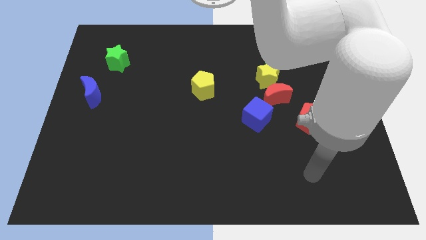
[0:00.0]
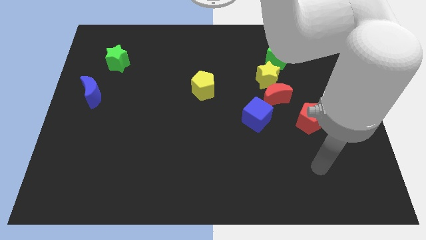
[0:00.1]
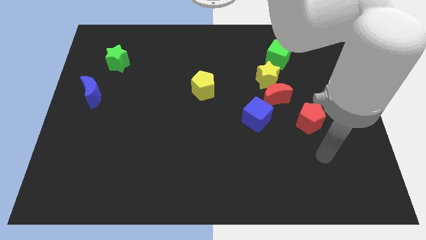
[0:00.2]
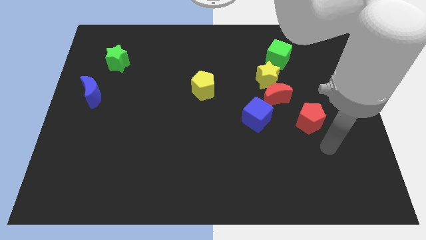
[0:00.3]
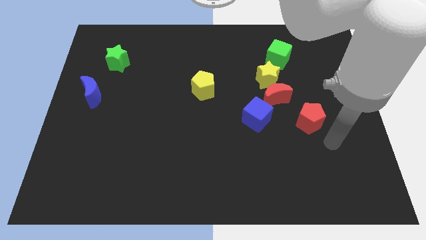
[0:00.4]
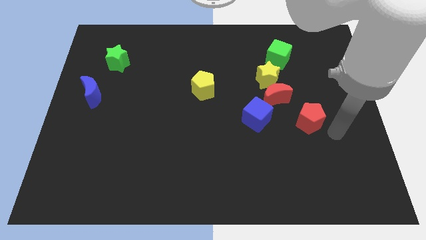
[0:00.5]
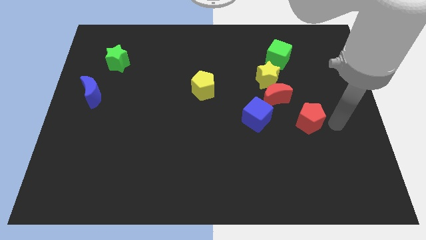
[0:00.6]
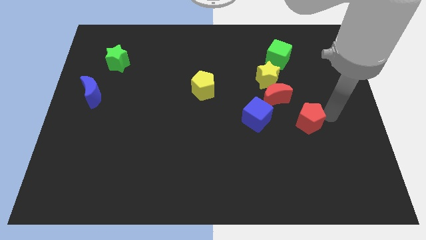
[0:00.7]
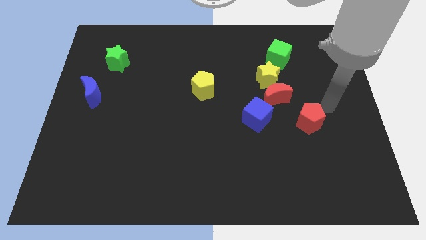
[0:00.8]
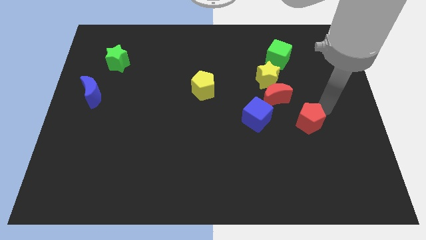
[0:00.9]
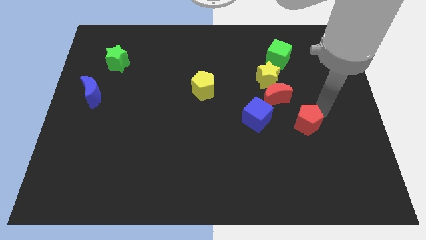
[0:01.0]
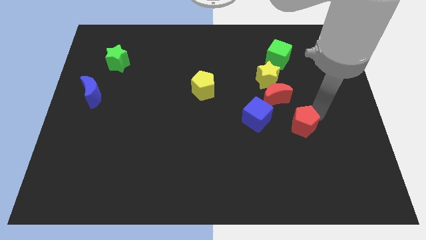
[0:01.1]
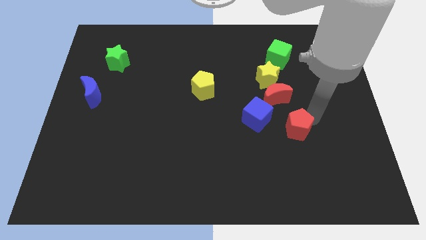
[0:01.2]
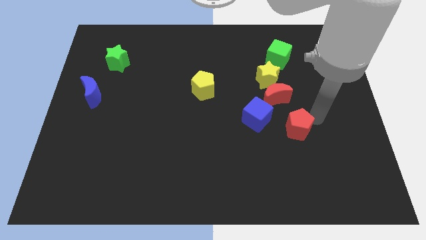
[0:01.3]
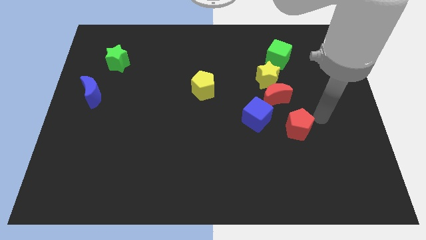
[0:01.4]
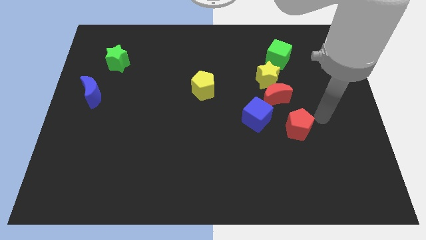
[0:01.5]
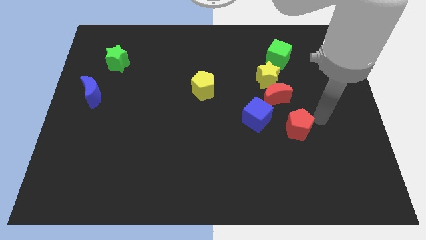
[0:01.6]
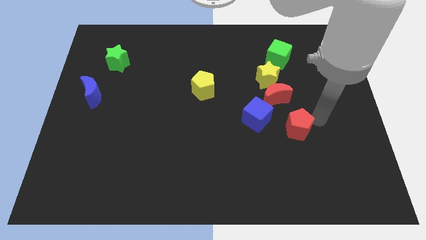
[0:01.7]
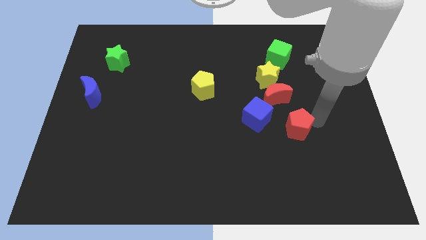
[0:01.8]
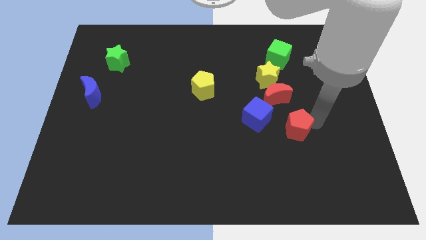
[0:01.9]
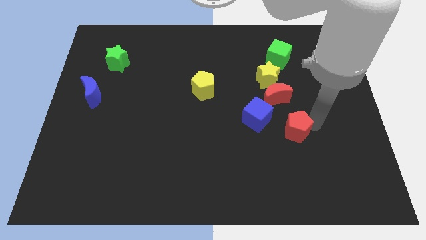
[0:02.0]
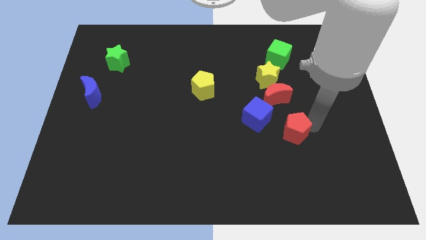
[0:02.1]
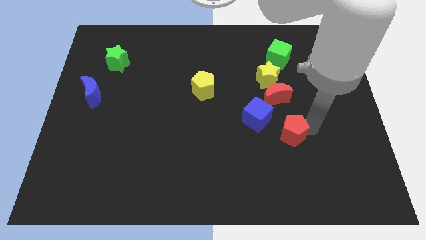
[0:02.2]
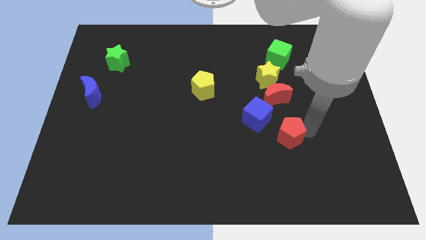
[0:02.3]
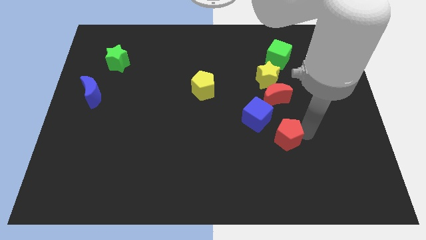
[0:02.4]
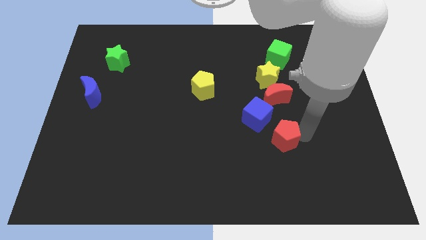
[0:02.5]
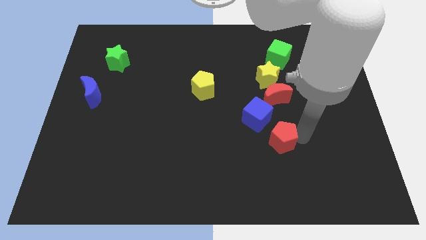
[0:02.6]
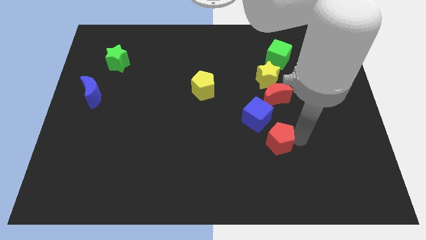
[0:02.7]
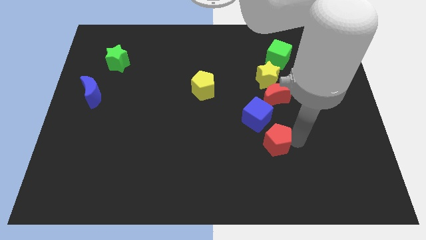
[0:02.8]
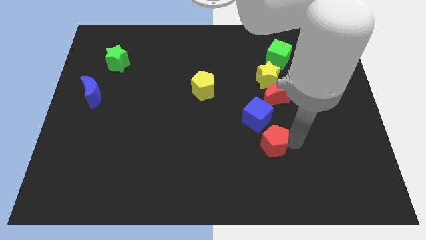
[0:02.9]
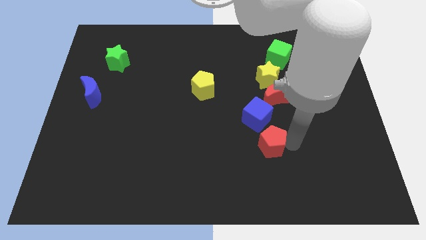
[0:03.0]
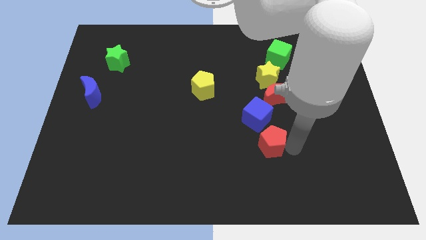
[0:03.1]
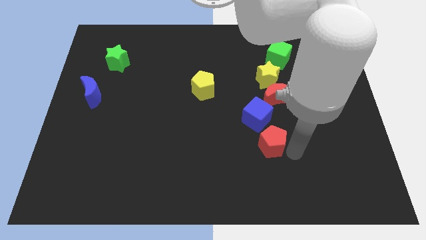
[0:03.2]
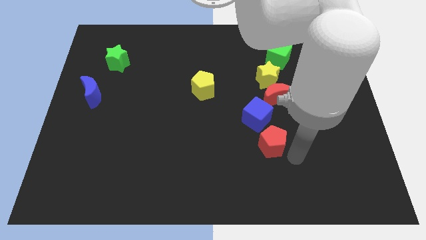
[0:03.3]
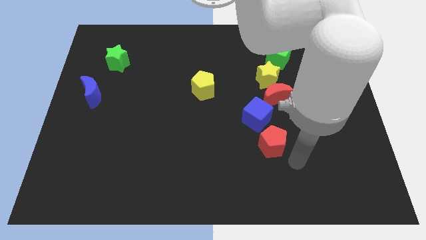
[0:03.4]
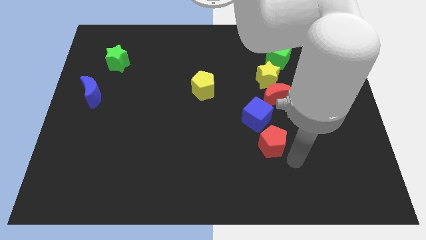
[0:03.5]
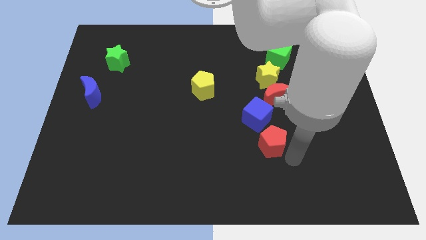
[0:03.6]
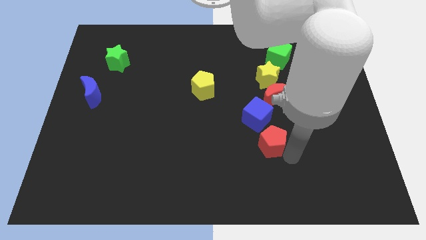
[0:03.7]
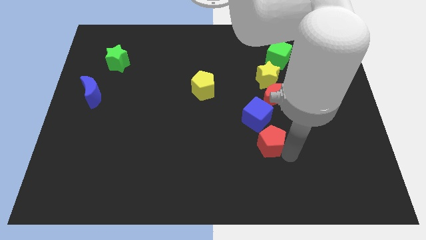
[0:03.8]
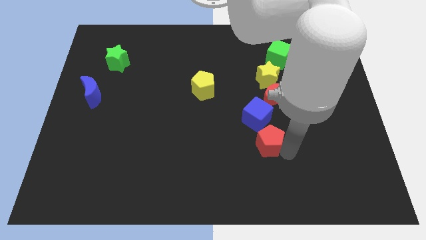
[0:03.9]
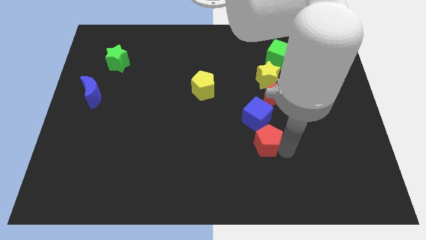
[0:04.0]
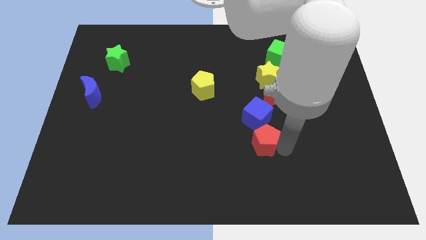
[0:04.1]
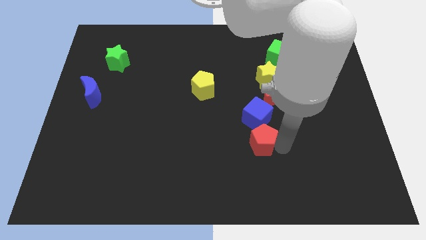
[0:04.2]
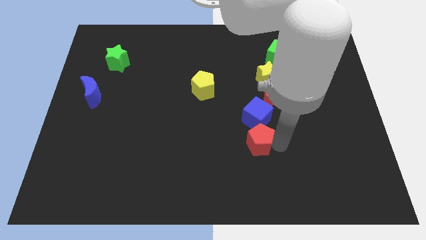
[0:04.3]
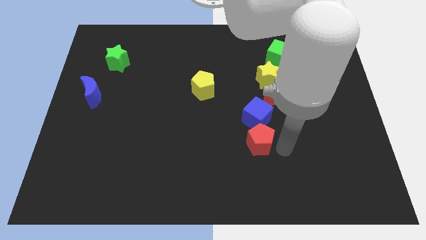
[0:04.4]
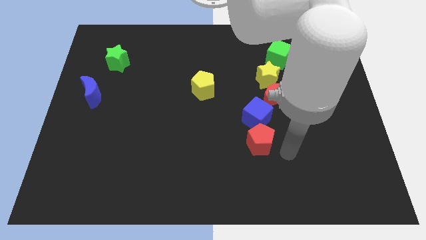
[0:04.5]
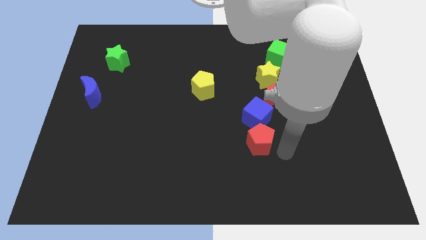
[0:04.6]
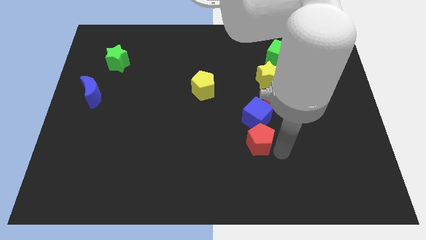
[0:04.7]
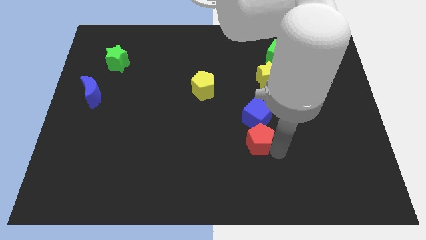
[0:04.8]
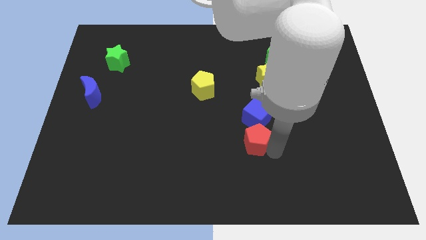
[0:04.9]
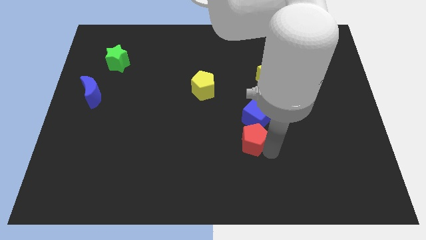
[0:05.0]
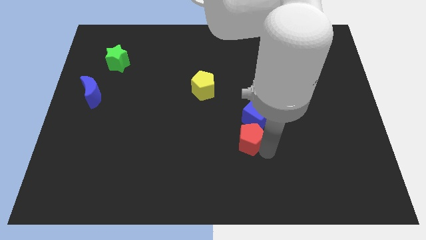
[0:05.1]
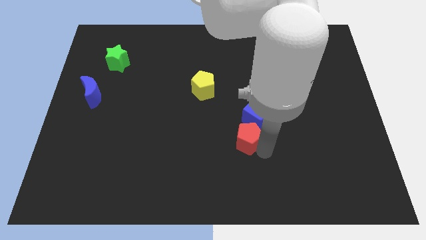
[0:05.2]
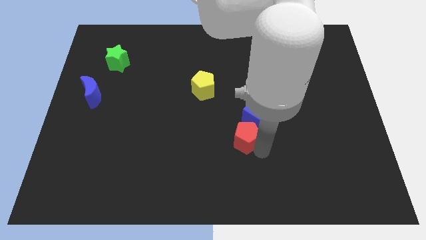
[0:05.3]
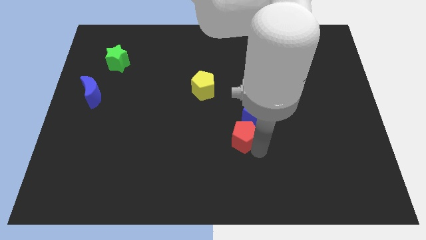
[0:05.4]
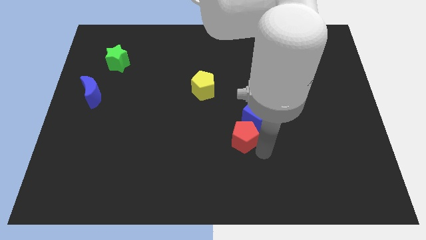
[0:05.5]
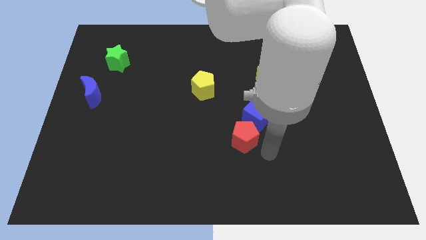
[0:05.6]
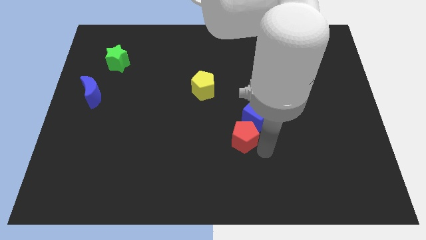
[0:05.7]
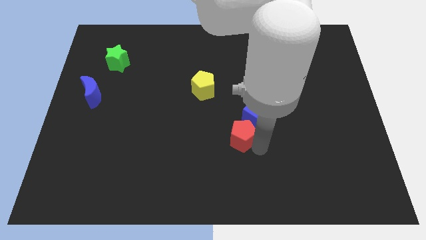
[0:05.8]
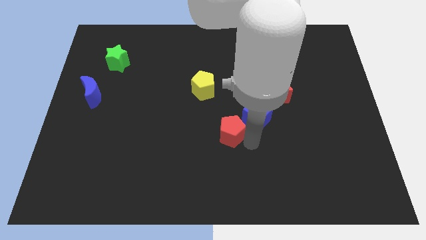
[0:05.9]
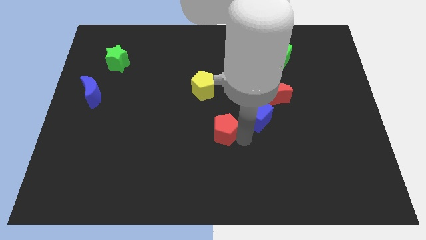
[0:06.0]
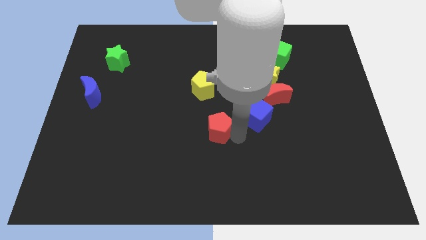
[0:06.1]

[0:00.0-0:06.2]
push the red pentagon left

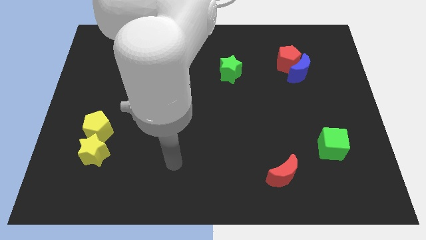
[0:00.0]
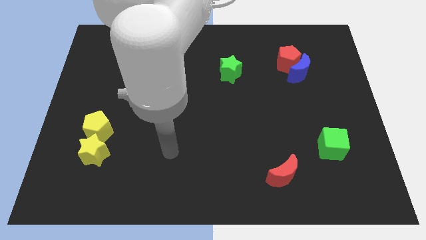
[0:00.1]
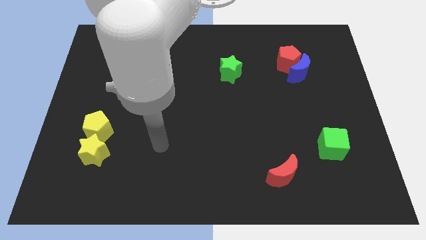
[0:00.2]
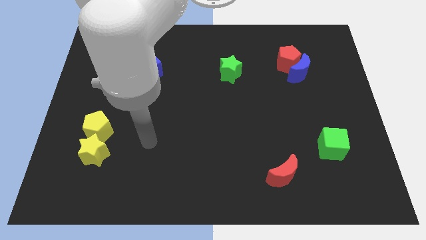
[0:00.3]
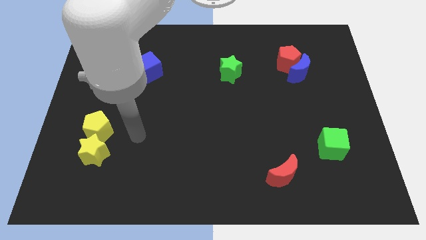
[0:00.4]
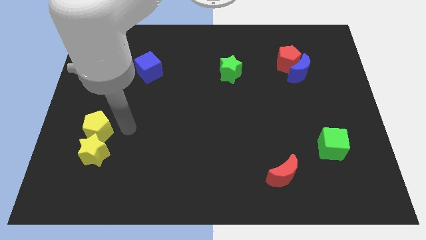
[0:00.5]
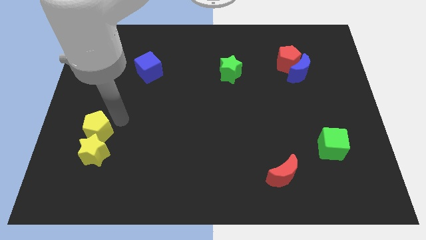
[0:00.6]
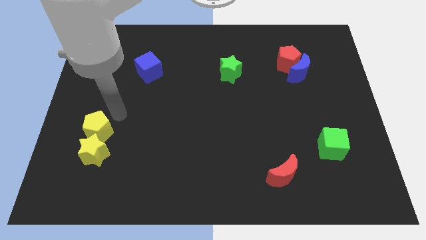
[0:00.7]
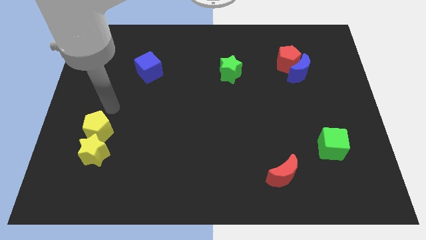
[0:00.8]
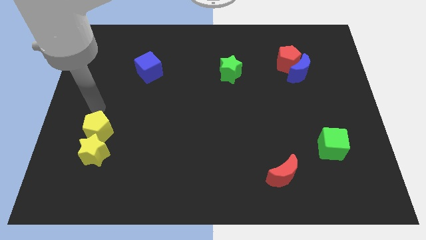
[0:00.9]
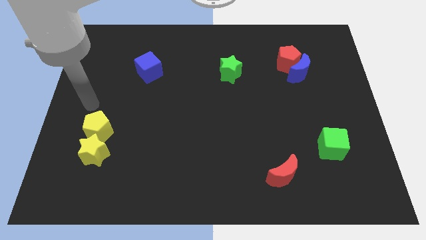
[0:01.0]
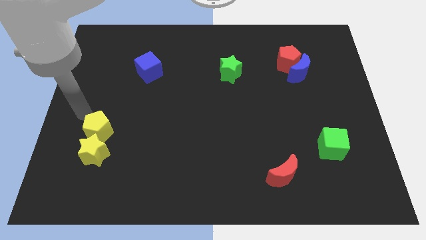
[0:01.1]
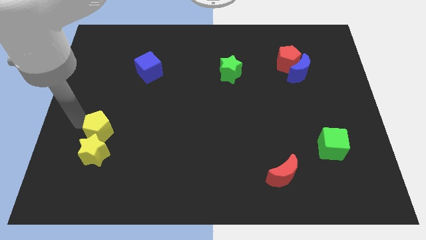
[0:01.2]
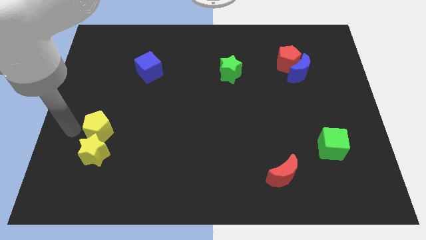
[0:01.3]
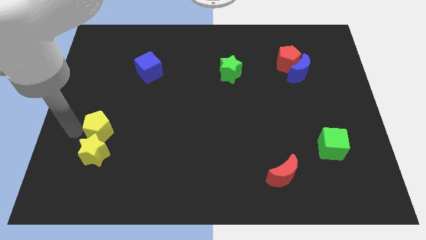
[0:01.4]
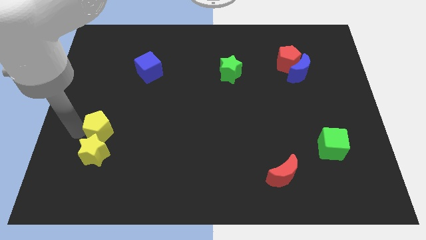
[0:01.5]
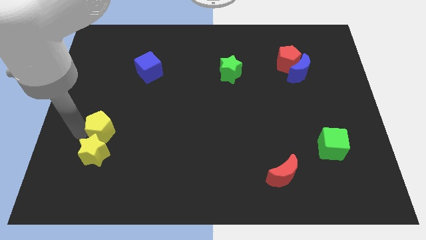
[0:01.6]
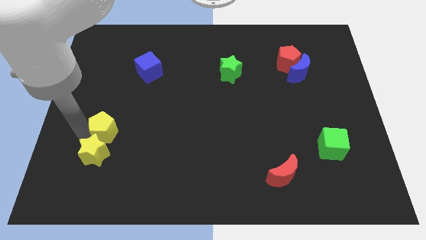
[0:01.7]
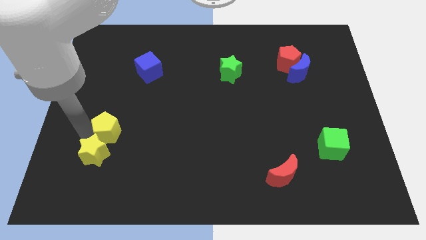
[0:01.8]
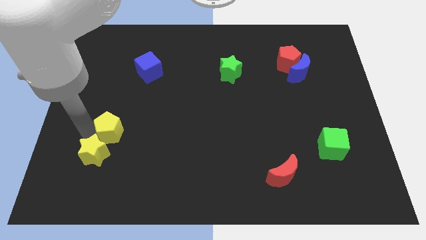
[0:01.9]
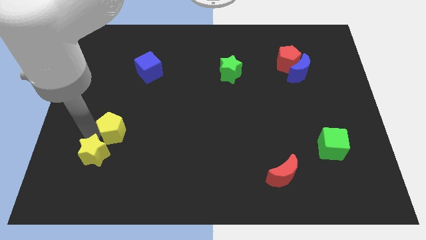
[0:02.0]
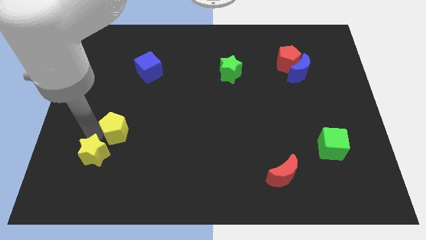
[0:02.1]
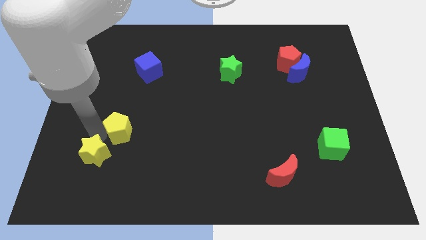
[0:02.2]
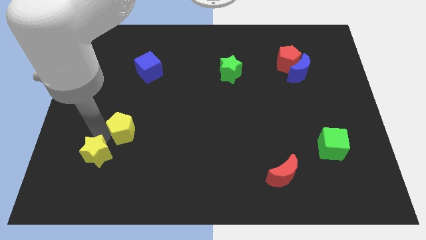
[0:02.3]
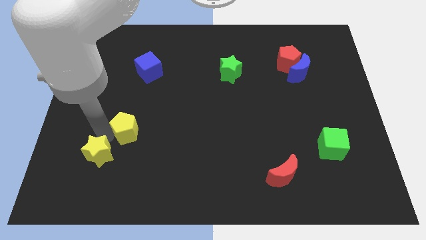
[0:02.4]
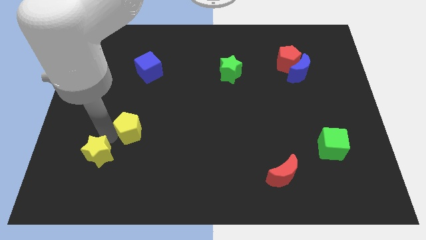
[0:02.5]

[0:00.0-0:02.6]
slide the yellow pentagon to the right somewhat
